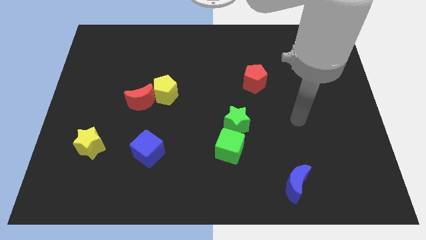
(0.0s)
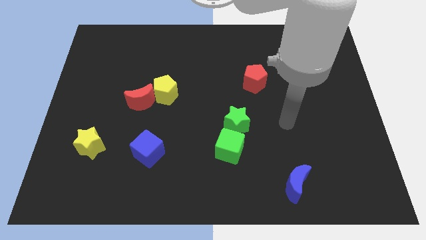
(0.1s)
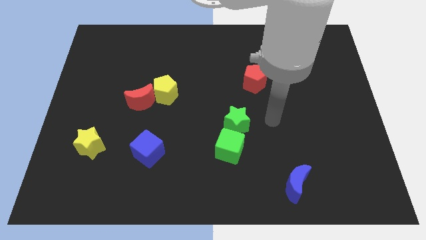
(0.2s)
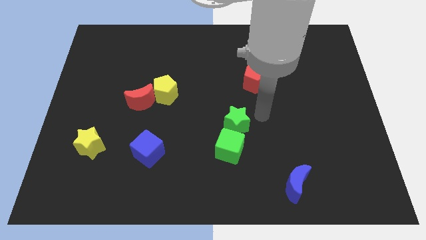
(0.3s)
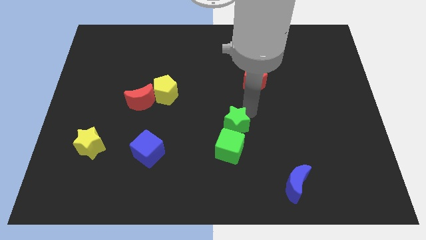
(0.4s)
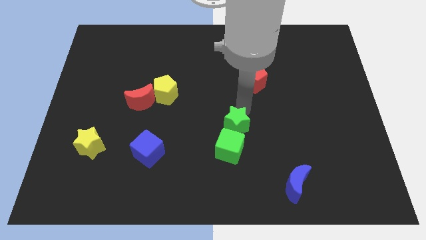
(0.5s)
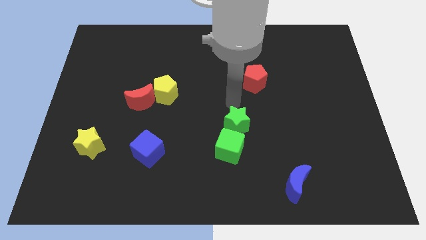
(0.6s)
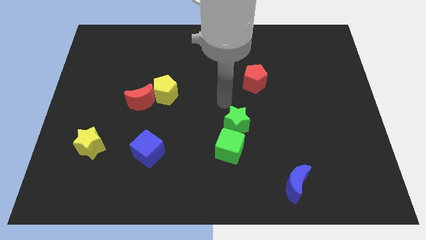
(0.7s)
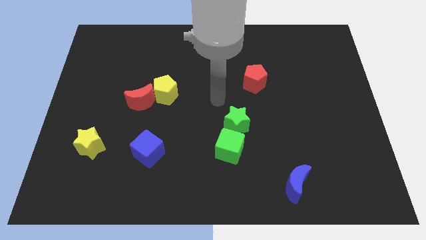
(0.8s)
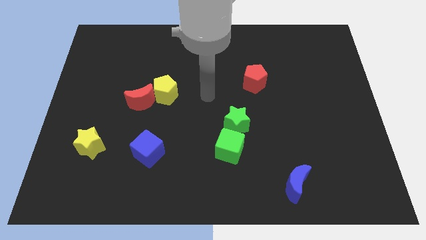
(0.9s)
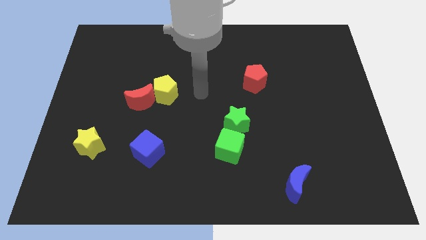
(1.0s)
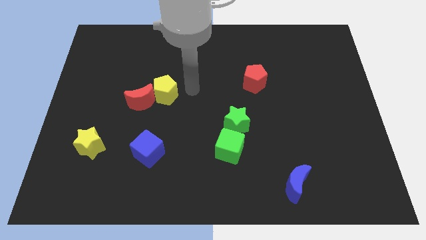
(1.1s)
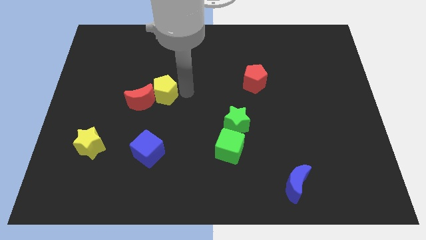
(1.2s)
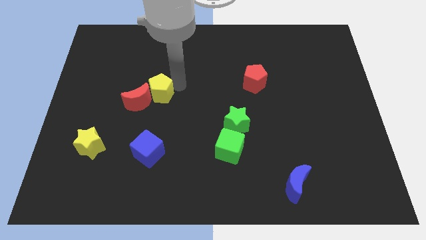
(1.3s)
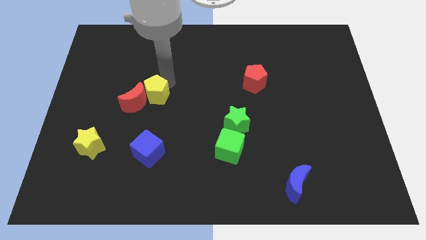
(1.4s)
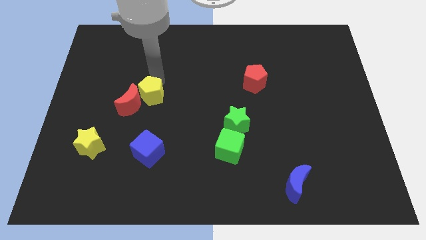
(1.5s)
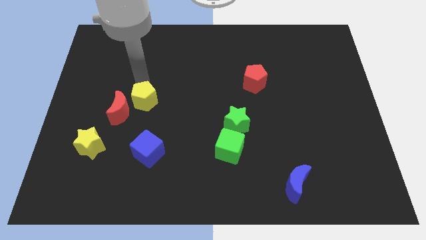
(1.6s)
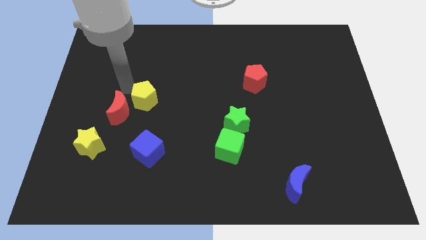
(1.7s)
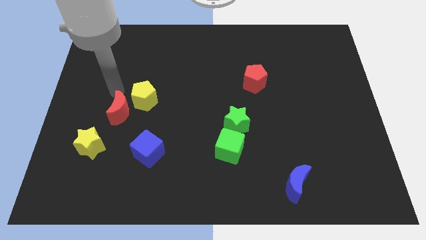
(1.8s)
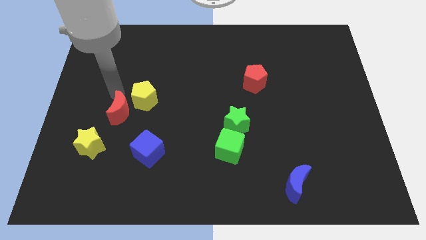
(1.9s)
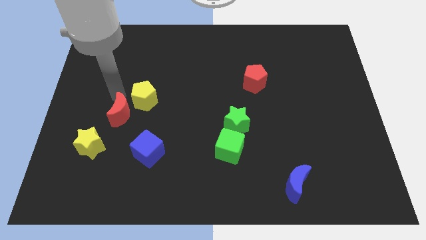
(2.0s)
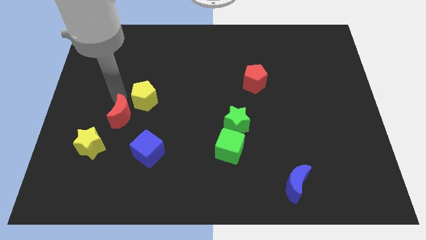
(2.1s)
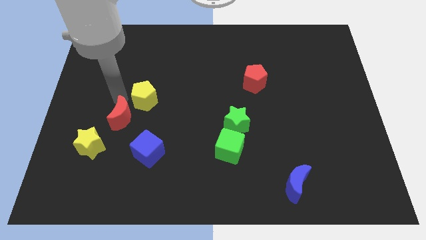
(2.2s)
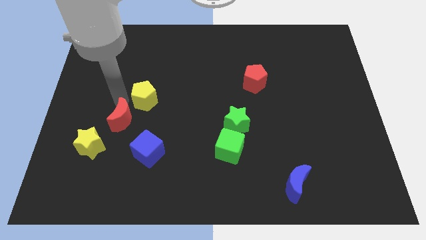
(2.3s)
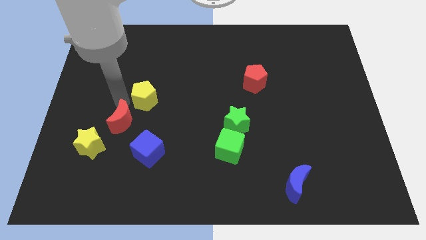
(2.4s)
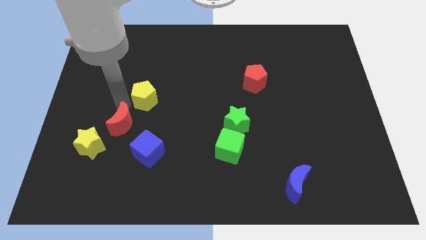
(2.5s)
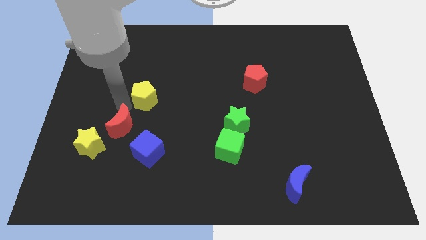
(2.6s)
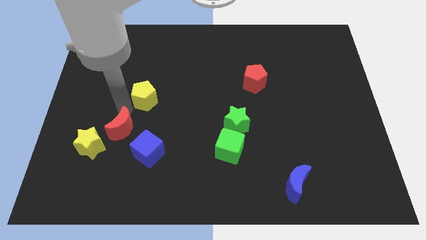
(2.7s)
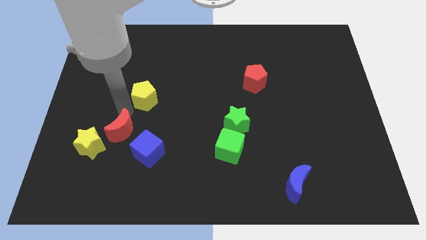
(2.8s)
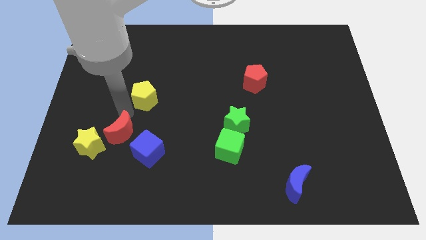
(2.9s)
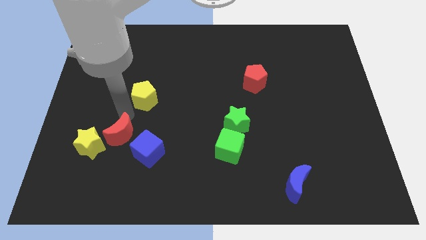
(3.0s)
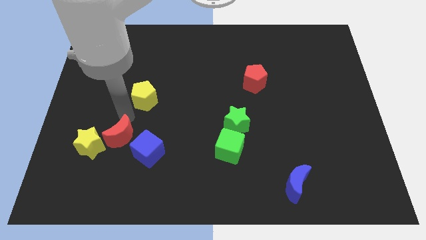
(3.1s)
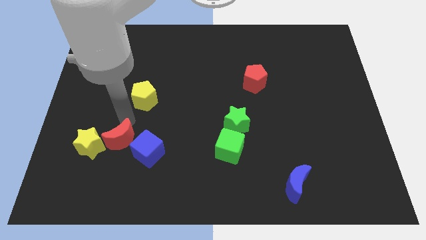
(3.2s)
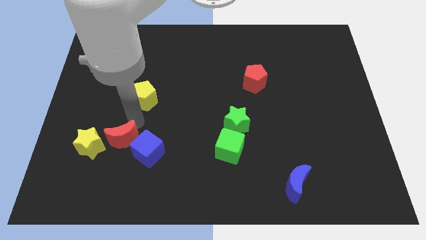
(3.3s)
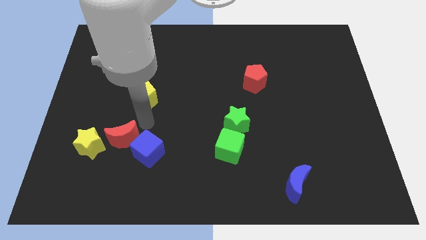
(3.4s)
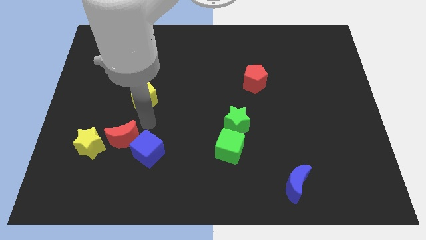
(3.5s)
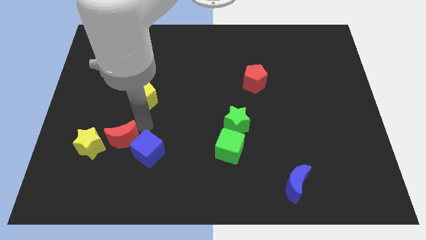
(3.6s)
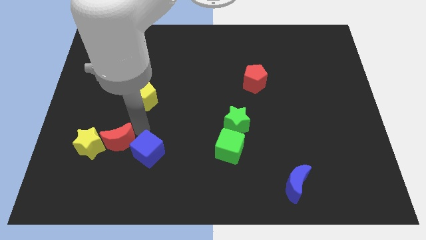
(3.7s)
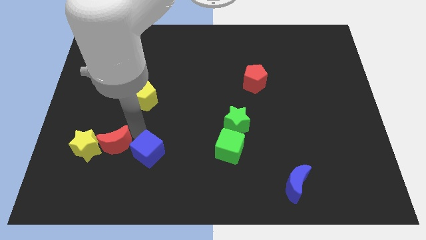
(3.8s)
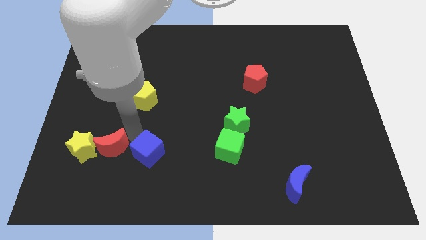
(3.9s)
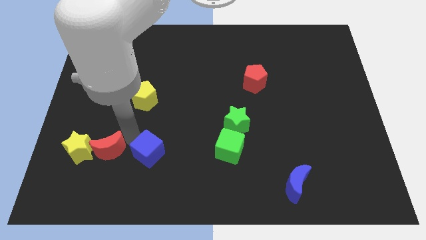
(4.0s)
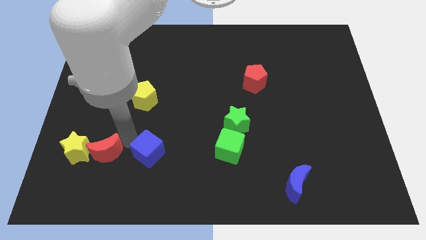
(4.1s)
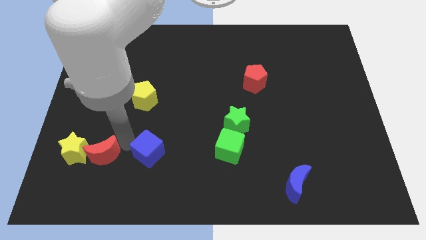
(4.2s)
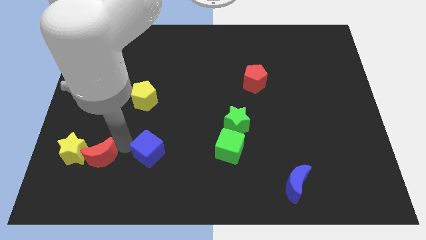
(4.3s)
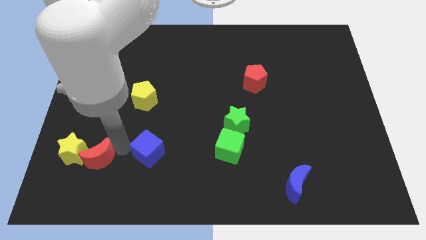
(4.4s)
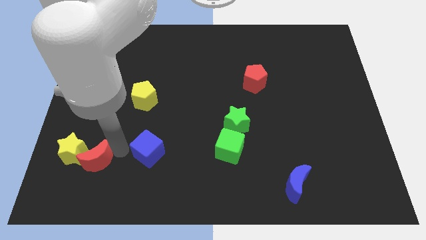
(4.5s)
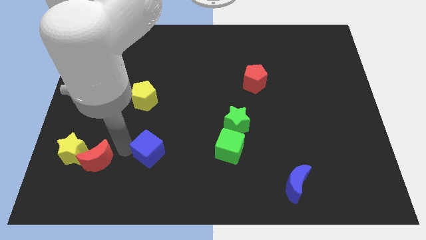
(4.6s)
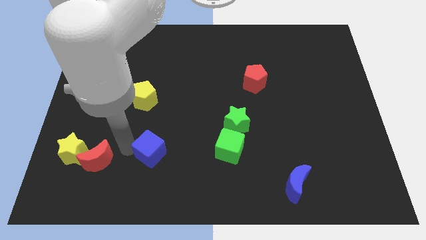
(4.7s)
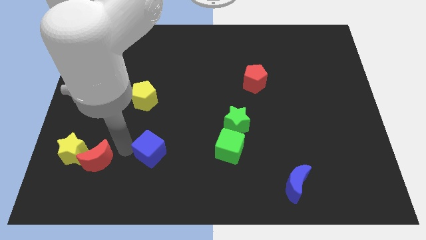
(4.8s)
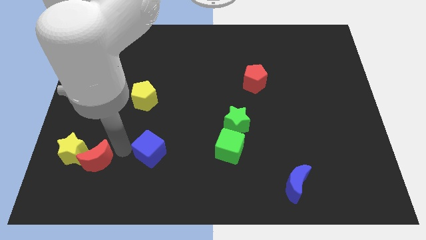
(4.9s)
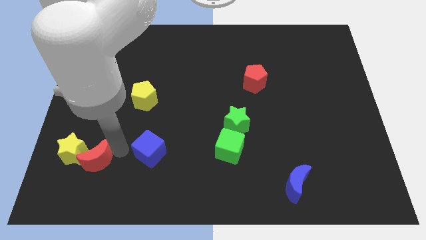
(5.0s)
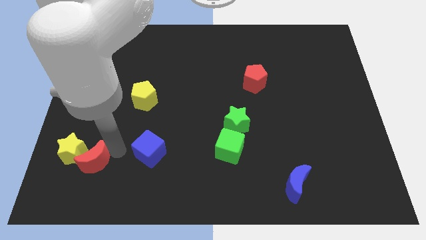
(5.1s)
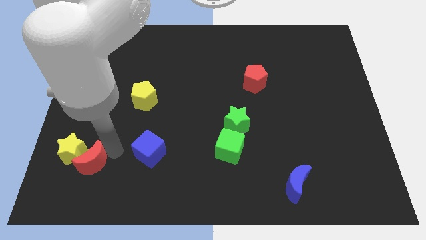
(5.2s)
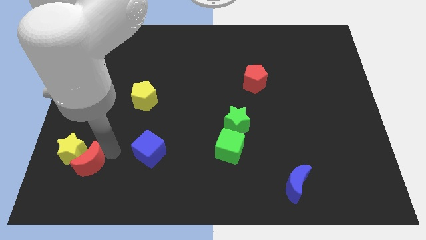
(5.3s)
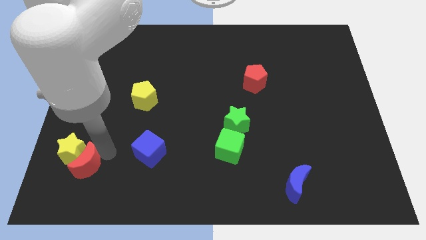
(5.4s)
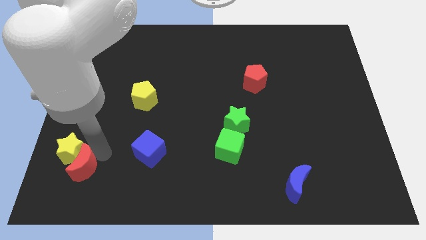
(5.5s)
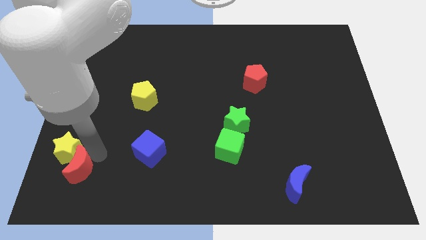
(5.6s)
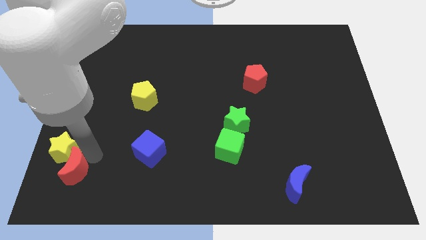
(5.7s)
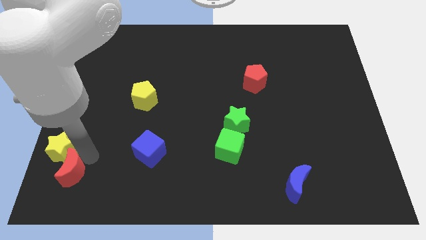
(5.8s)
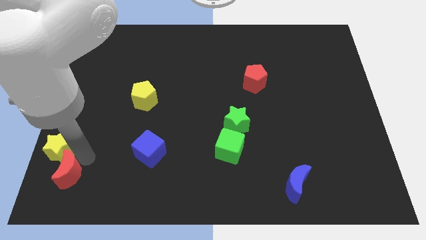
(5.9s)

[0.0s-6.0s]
move the red moon to the lower left corner
